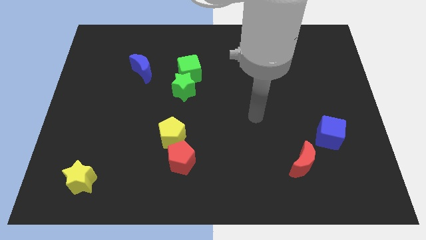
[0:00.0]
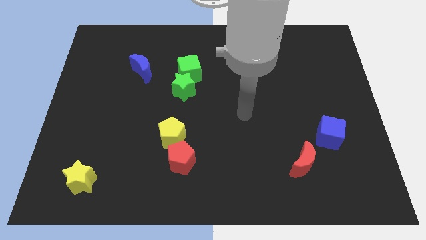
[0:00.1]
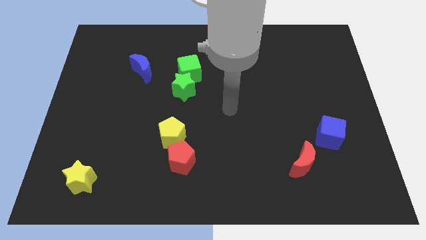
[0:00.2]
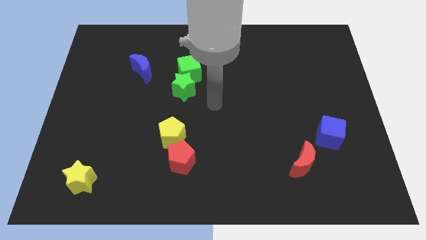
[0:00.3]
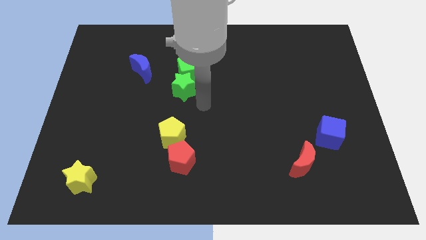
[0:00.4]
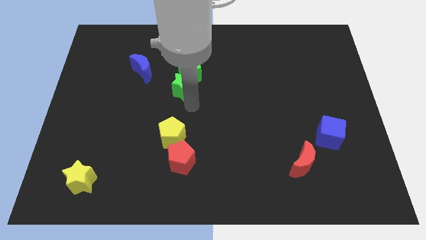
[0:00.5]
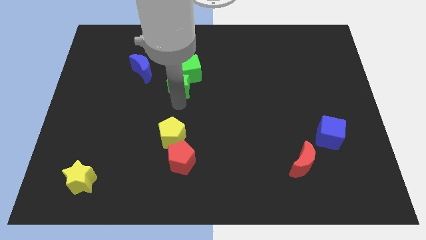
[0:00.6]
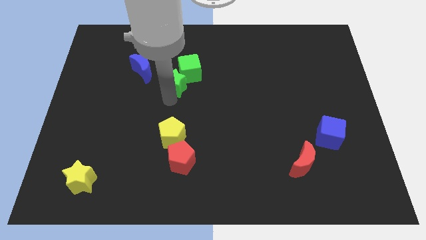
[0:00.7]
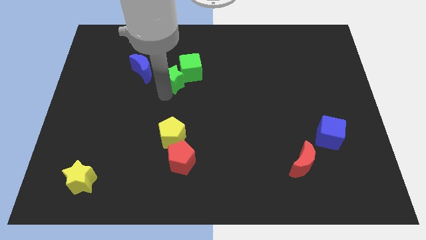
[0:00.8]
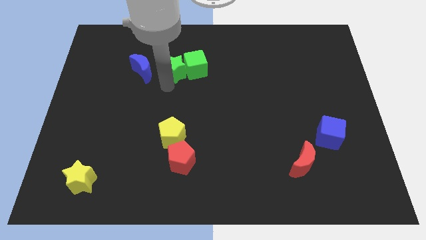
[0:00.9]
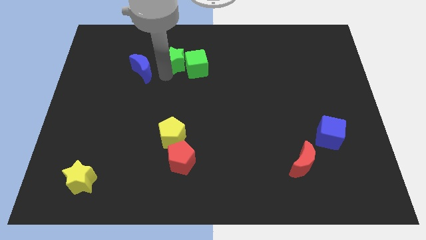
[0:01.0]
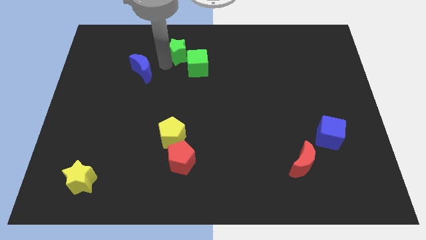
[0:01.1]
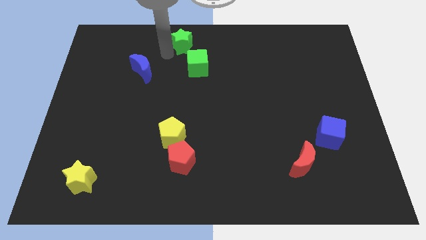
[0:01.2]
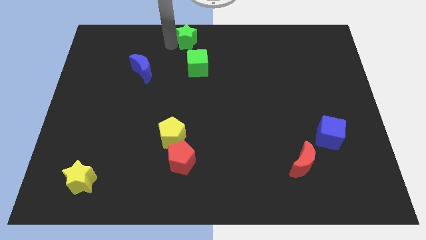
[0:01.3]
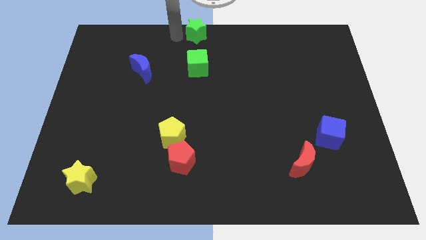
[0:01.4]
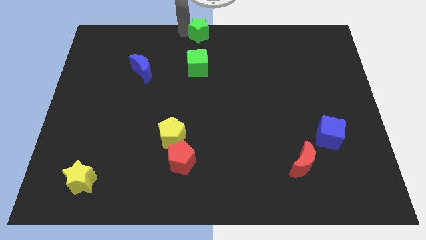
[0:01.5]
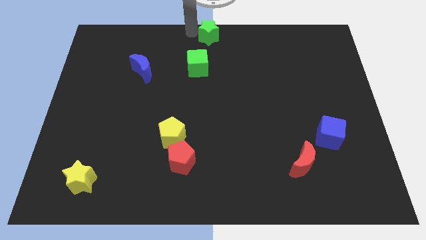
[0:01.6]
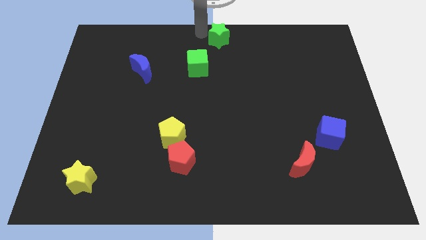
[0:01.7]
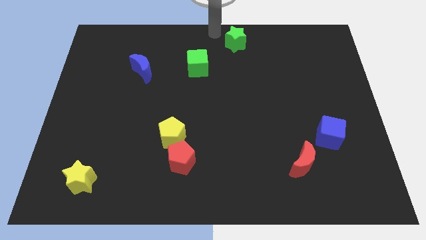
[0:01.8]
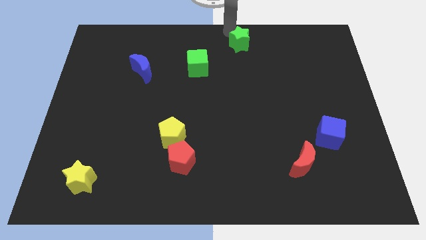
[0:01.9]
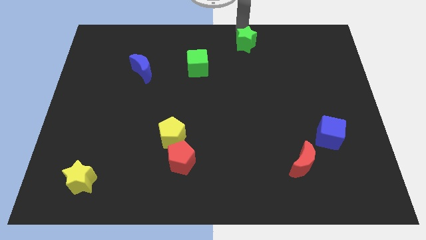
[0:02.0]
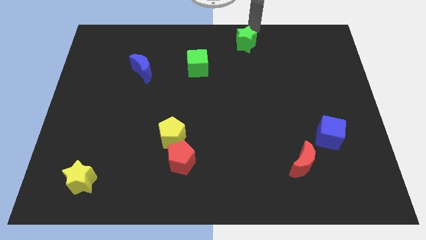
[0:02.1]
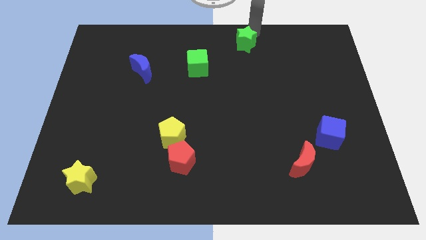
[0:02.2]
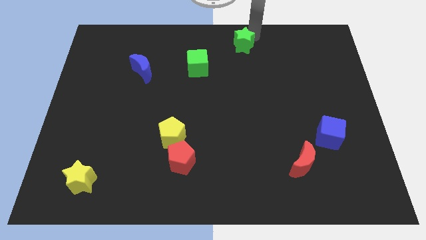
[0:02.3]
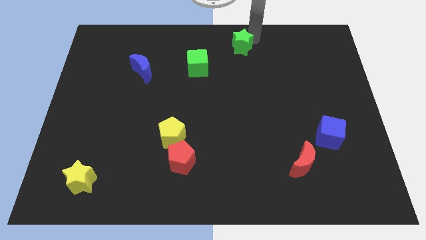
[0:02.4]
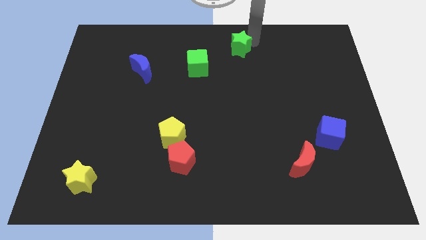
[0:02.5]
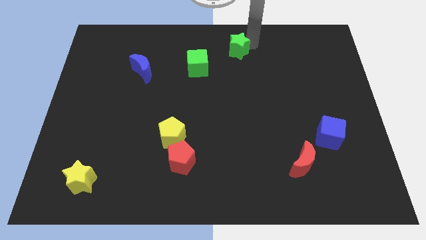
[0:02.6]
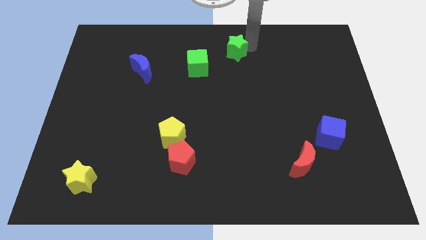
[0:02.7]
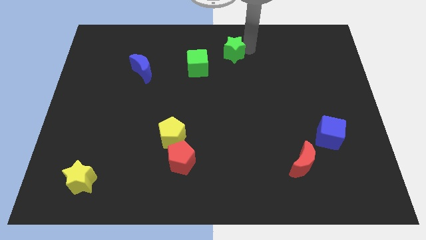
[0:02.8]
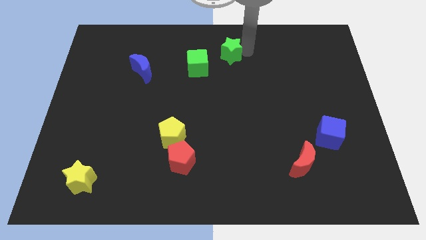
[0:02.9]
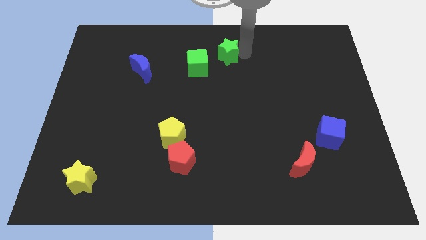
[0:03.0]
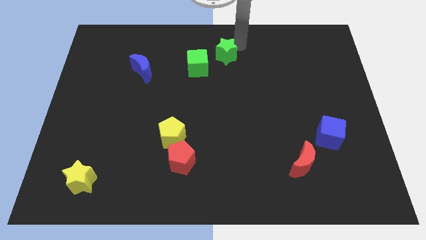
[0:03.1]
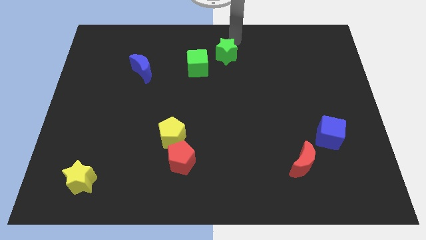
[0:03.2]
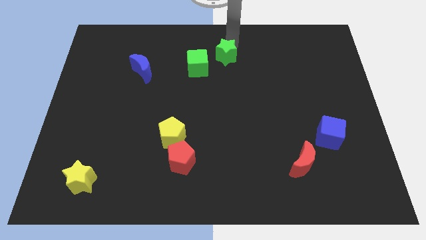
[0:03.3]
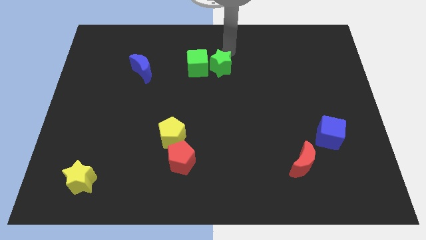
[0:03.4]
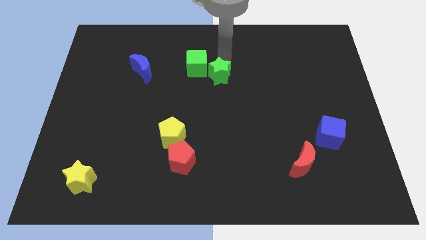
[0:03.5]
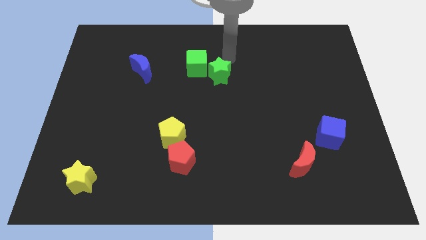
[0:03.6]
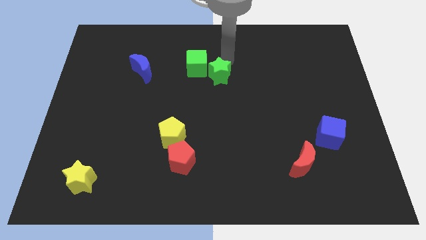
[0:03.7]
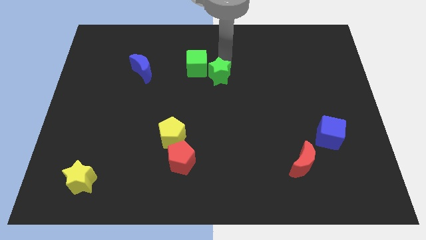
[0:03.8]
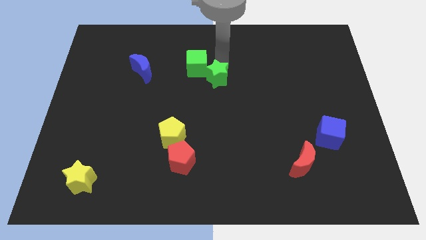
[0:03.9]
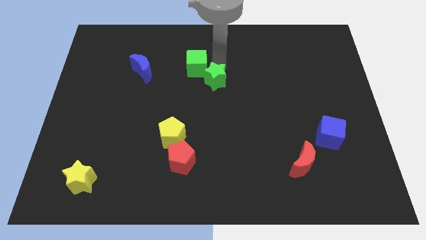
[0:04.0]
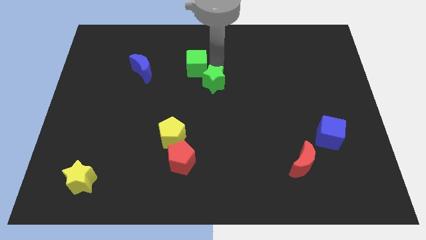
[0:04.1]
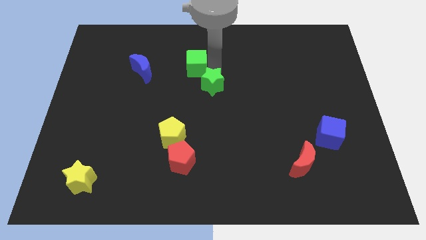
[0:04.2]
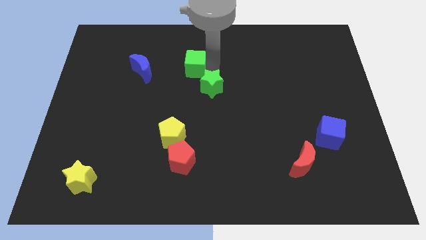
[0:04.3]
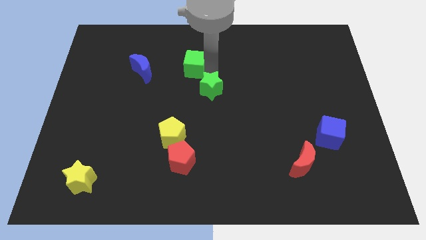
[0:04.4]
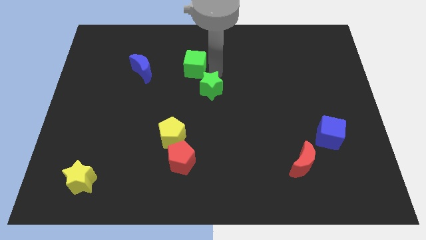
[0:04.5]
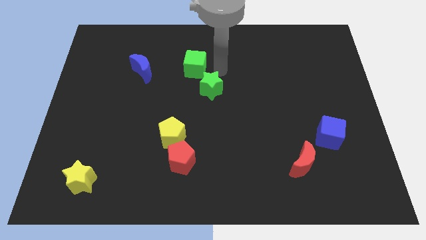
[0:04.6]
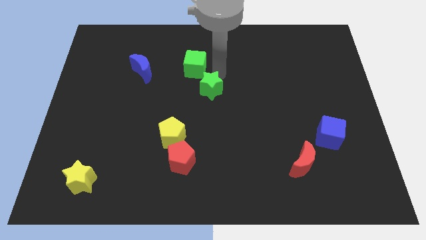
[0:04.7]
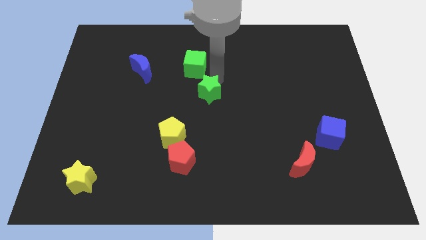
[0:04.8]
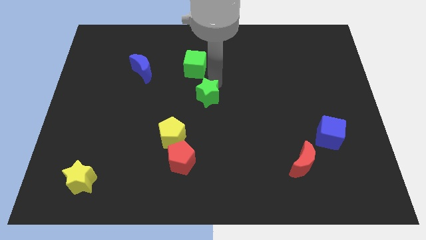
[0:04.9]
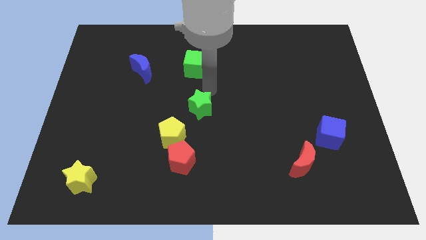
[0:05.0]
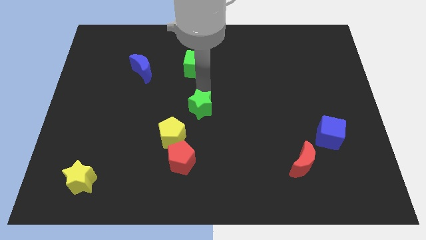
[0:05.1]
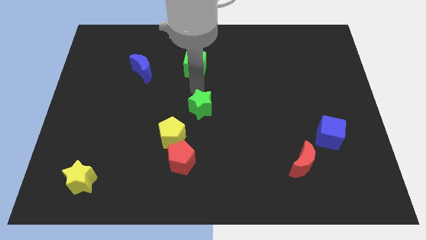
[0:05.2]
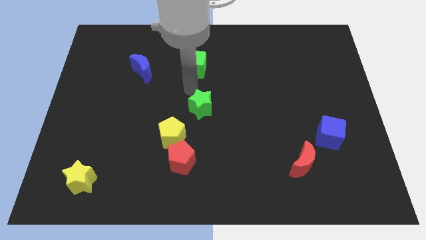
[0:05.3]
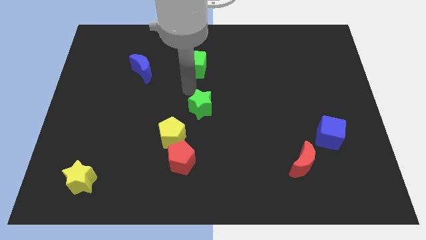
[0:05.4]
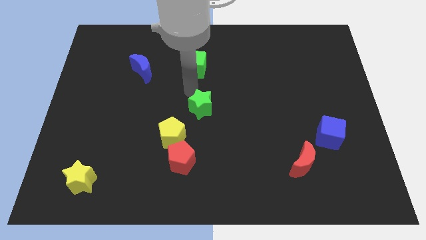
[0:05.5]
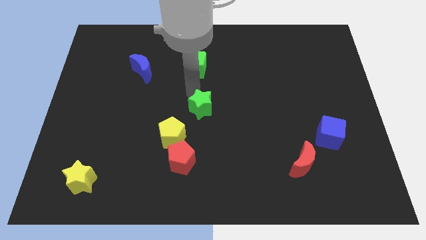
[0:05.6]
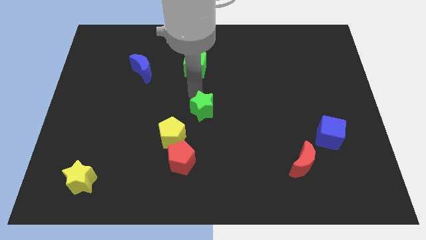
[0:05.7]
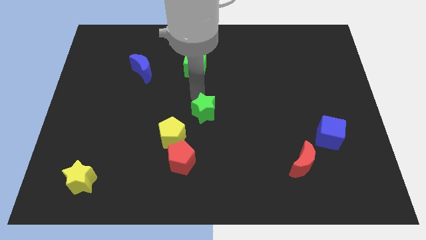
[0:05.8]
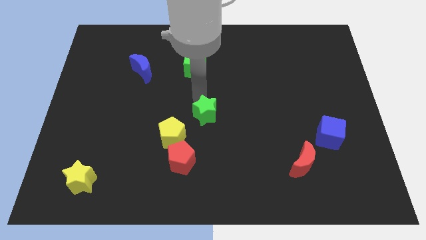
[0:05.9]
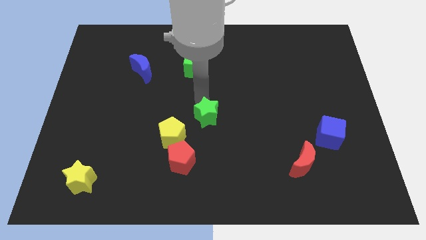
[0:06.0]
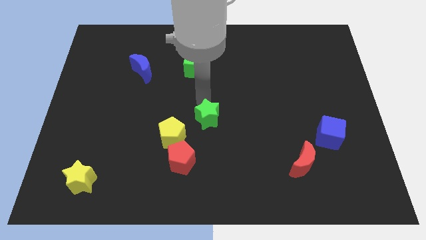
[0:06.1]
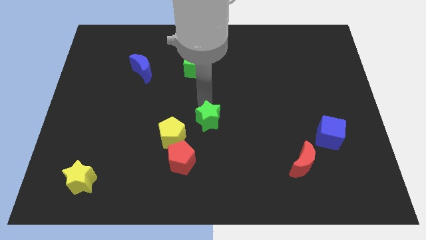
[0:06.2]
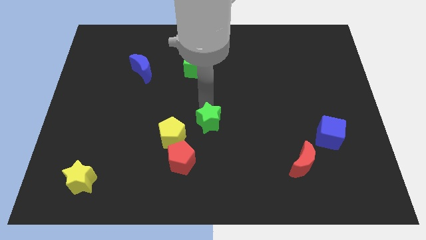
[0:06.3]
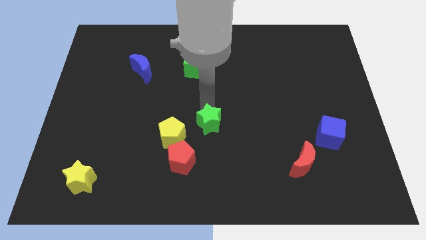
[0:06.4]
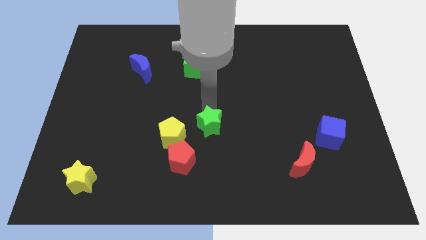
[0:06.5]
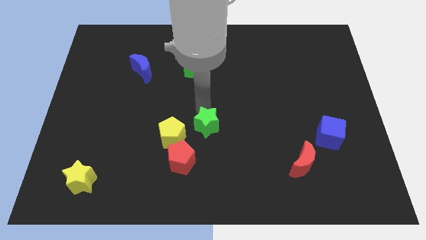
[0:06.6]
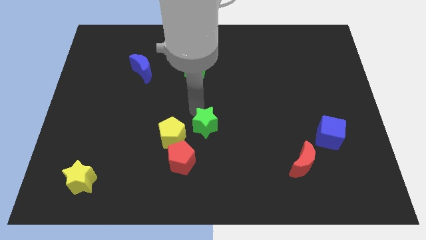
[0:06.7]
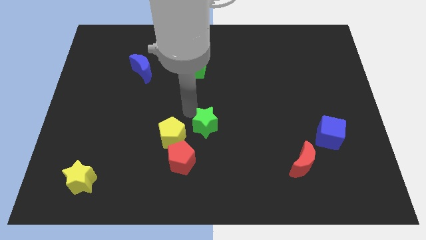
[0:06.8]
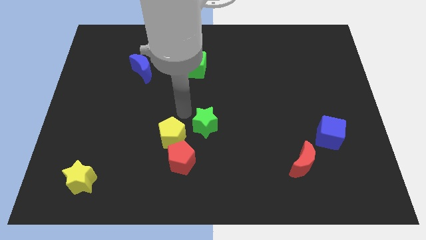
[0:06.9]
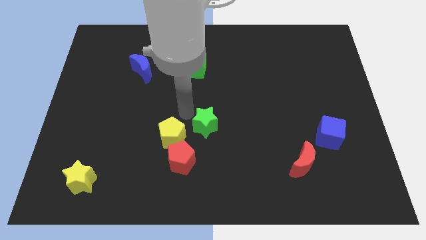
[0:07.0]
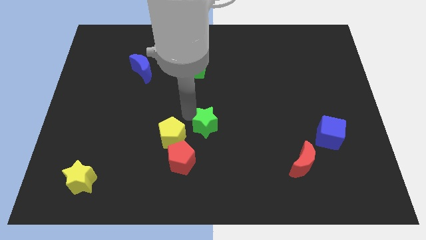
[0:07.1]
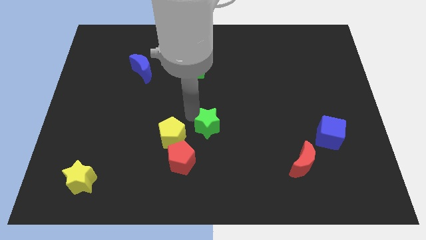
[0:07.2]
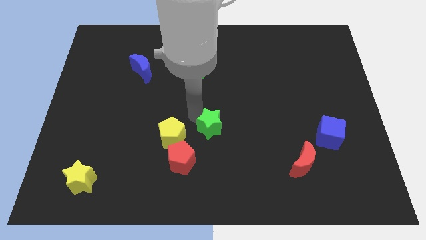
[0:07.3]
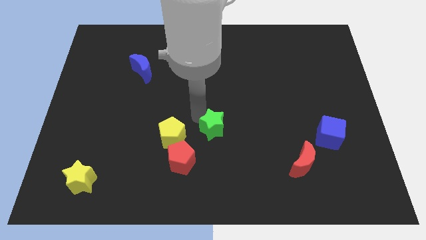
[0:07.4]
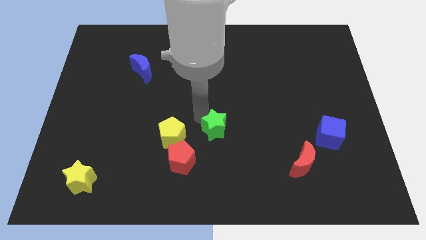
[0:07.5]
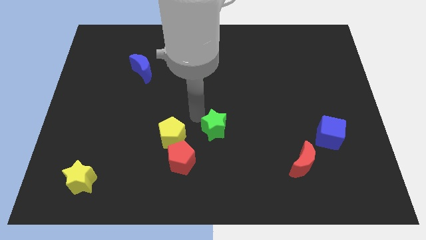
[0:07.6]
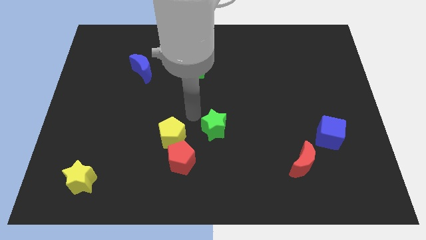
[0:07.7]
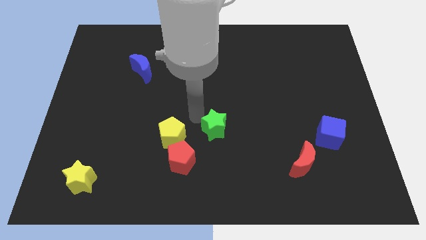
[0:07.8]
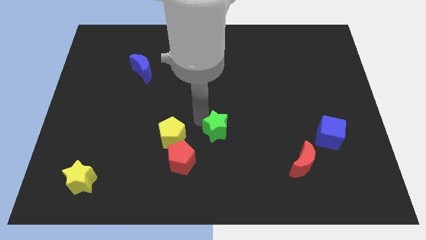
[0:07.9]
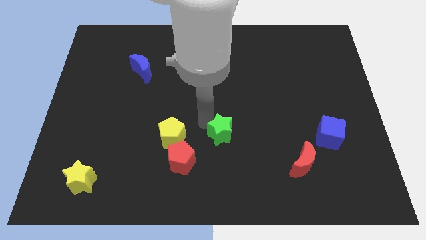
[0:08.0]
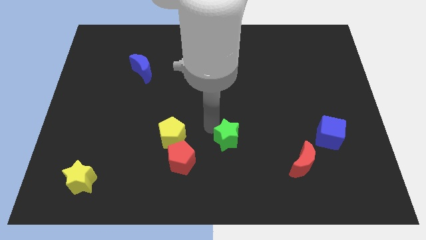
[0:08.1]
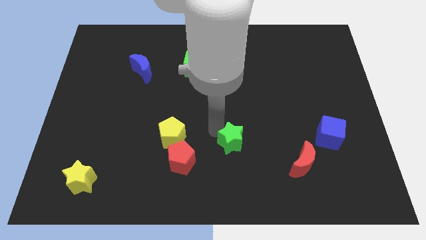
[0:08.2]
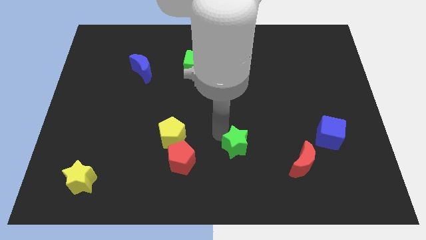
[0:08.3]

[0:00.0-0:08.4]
slide the green star down and right diagonally
